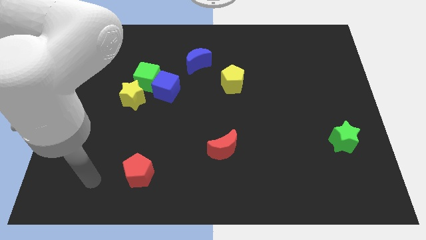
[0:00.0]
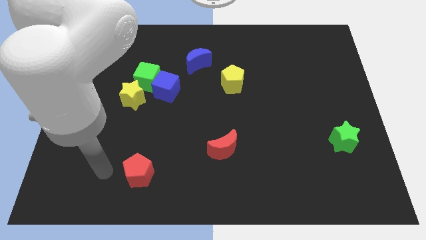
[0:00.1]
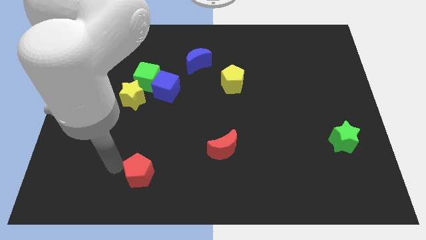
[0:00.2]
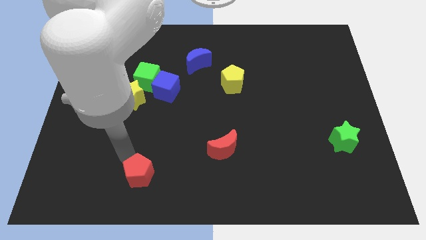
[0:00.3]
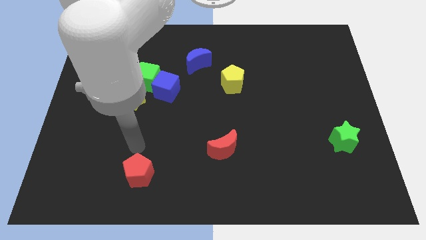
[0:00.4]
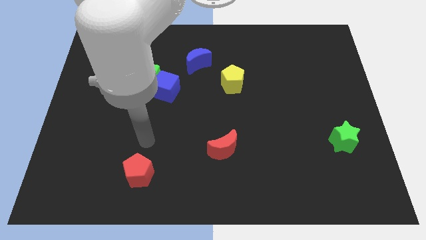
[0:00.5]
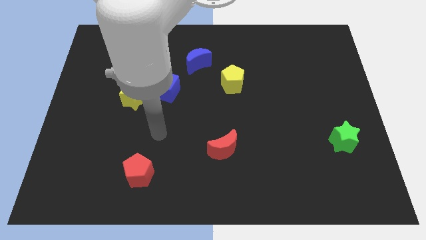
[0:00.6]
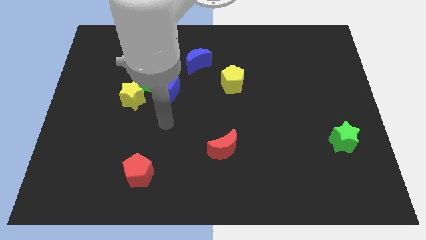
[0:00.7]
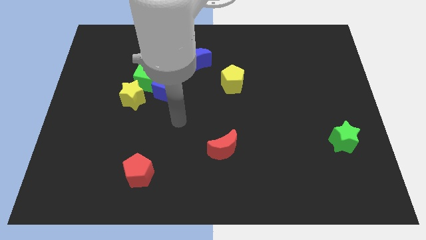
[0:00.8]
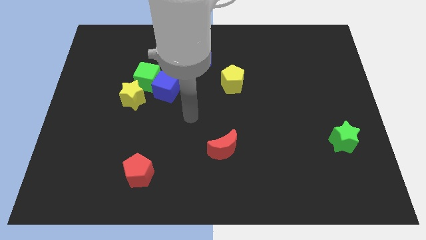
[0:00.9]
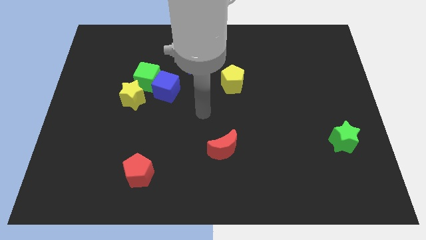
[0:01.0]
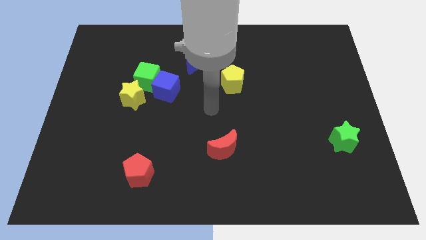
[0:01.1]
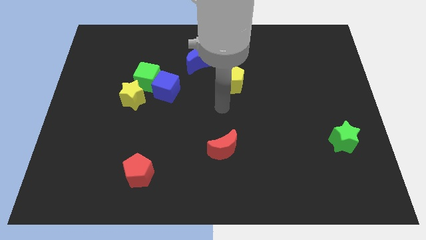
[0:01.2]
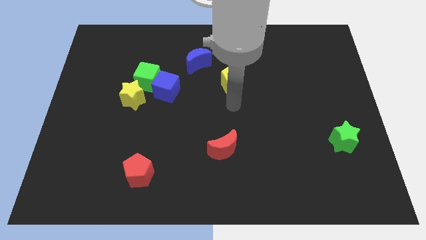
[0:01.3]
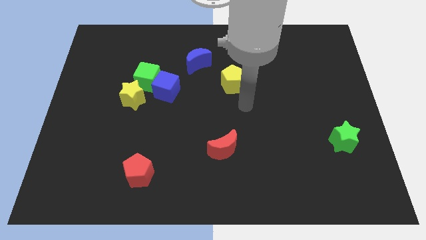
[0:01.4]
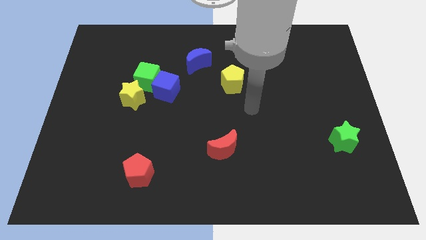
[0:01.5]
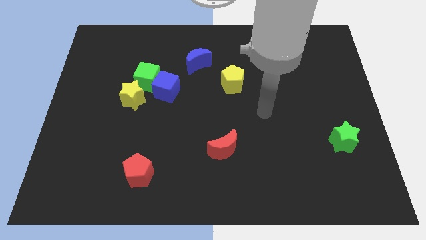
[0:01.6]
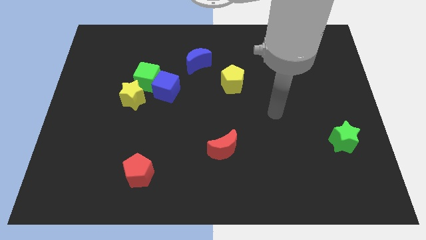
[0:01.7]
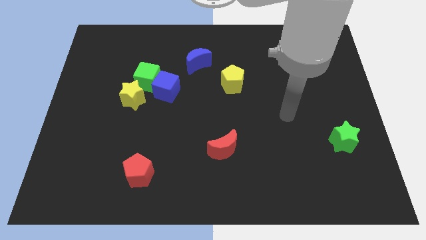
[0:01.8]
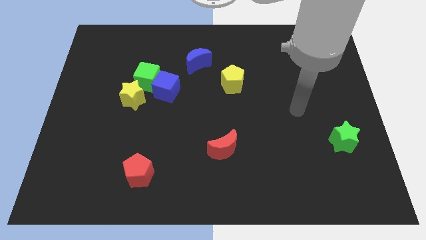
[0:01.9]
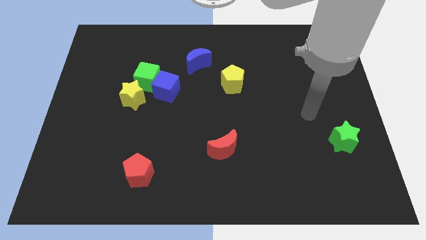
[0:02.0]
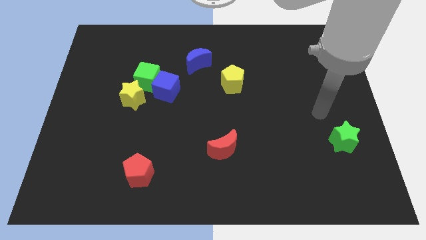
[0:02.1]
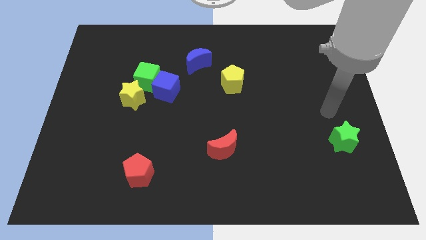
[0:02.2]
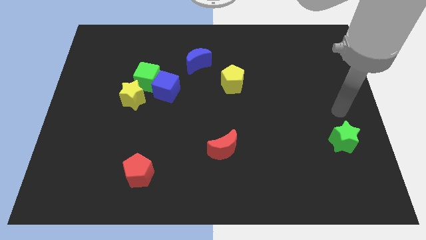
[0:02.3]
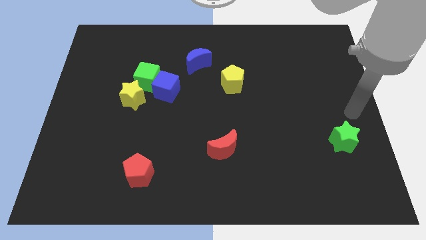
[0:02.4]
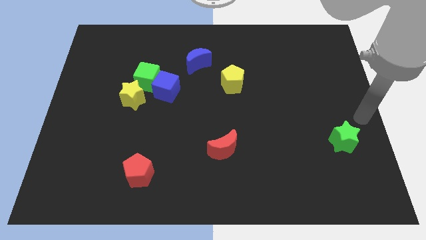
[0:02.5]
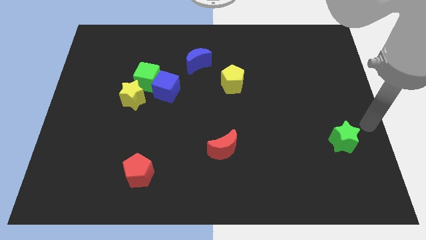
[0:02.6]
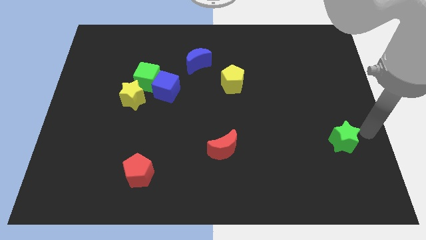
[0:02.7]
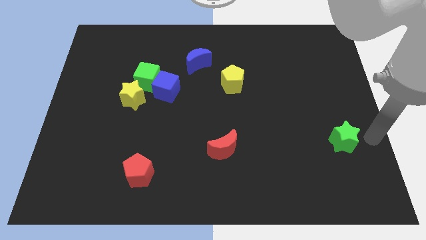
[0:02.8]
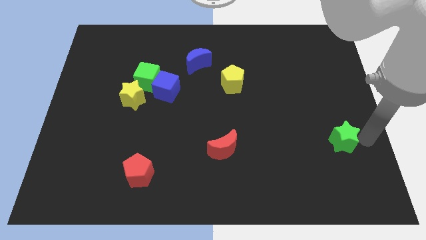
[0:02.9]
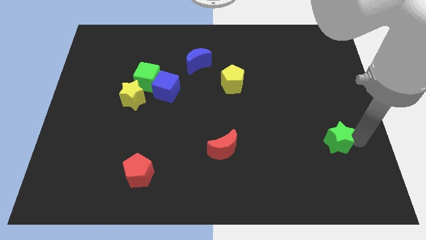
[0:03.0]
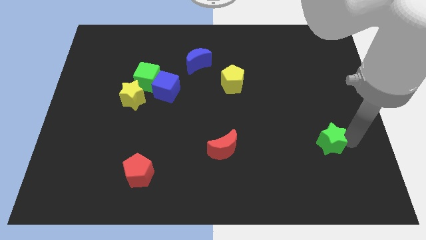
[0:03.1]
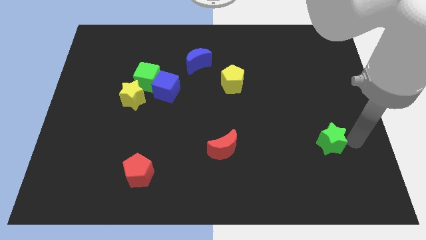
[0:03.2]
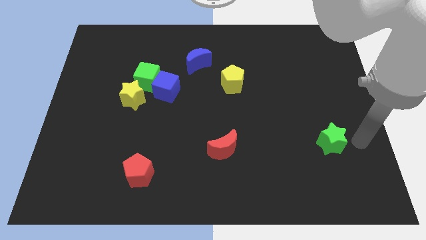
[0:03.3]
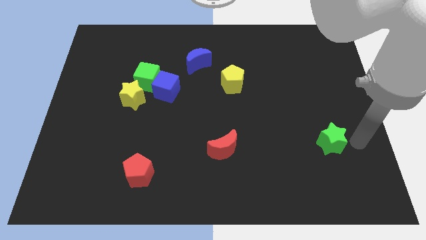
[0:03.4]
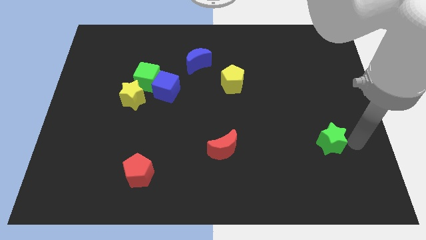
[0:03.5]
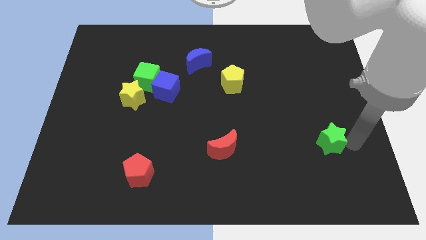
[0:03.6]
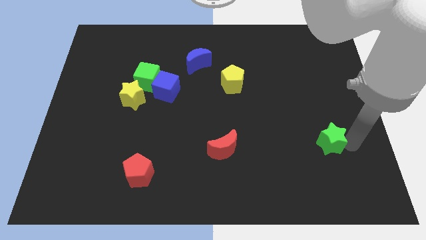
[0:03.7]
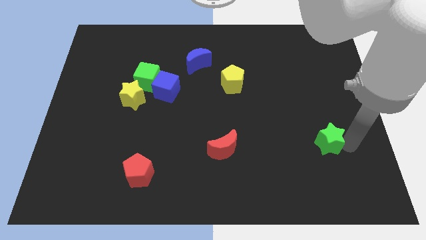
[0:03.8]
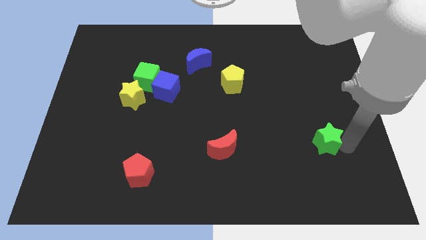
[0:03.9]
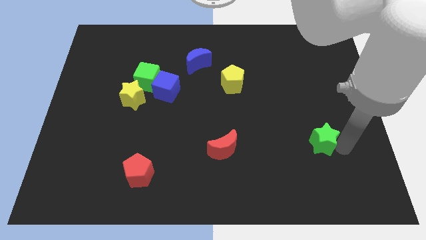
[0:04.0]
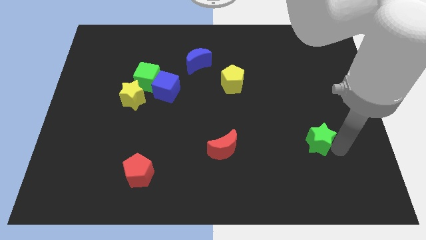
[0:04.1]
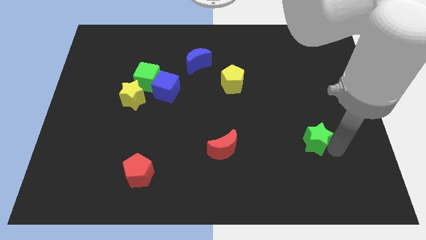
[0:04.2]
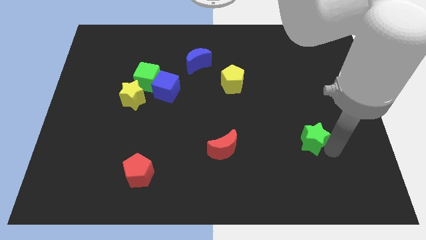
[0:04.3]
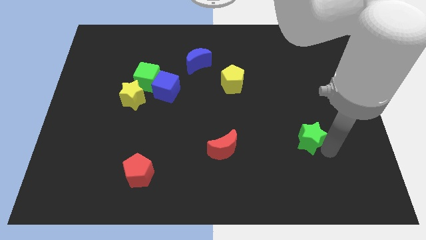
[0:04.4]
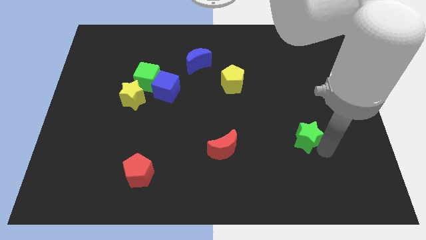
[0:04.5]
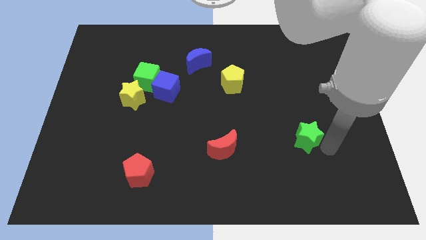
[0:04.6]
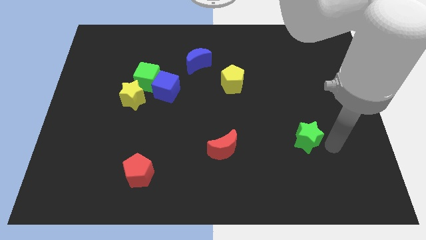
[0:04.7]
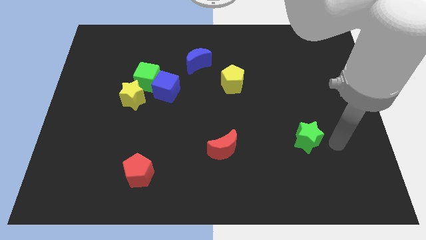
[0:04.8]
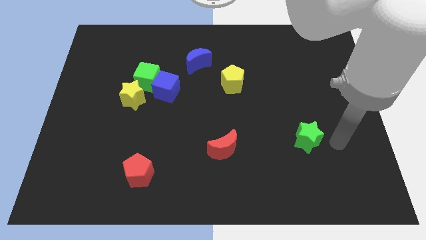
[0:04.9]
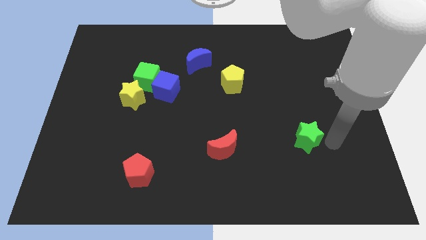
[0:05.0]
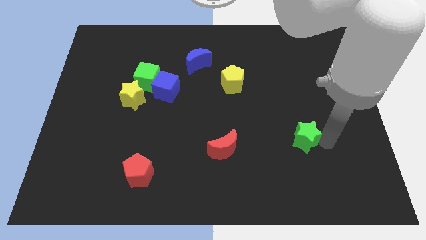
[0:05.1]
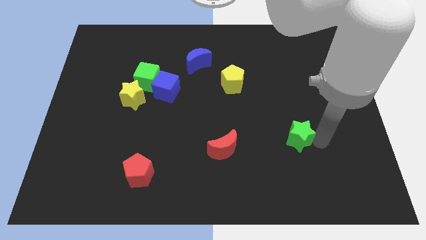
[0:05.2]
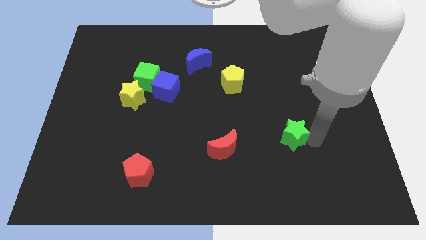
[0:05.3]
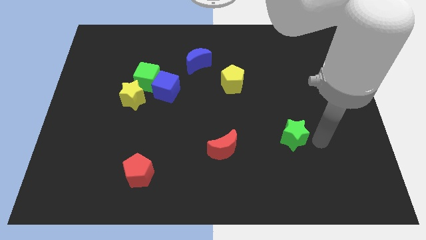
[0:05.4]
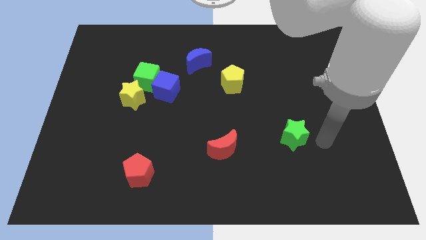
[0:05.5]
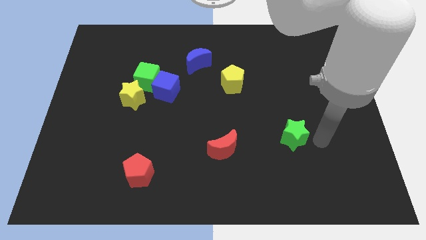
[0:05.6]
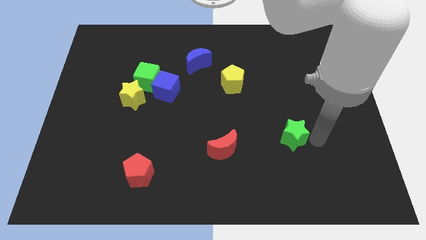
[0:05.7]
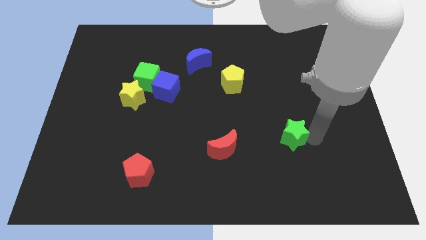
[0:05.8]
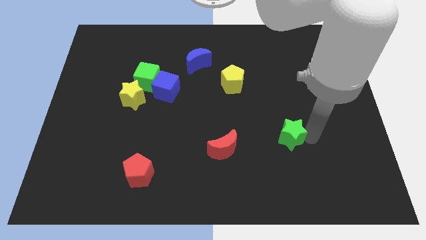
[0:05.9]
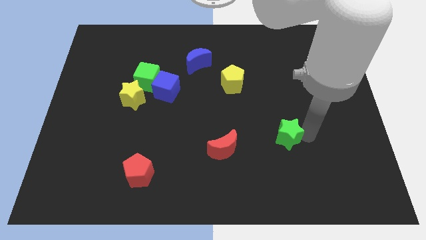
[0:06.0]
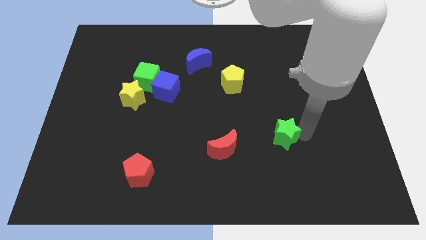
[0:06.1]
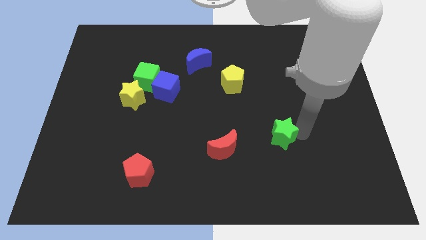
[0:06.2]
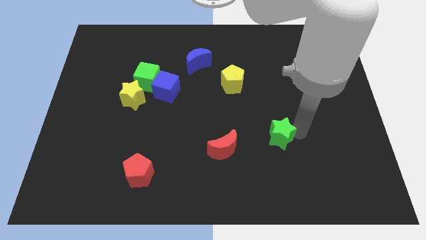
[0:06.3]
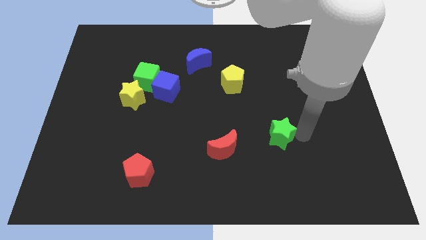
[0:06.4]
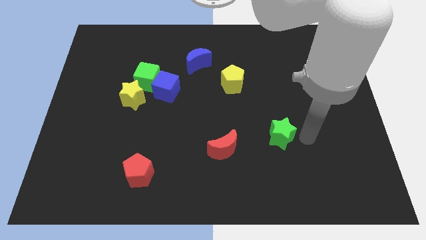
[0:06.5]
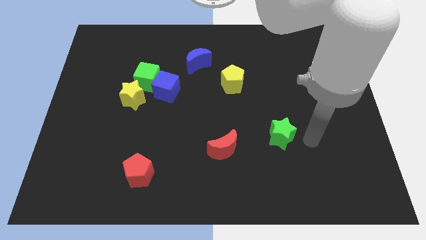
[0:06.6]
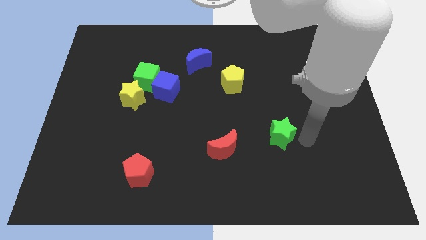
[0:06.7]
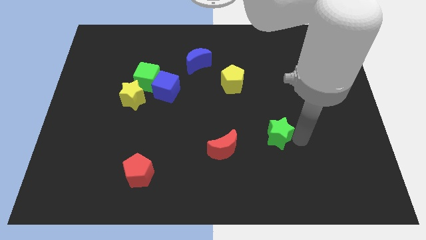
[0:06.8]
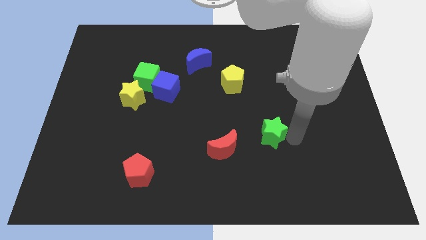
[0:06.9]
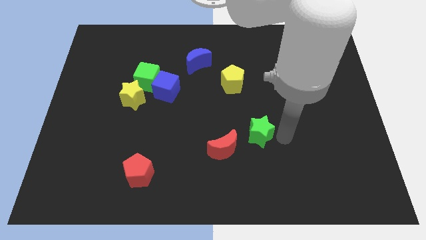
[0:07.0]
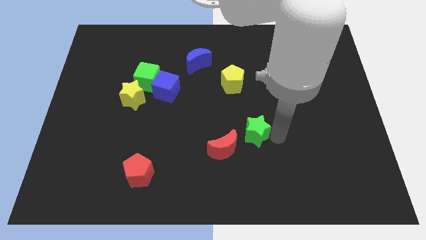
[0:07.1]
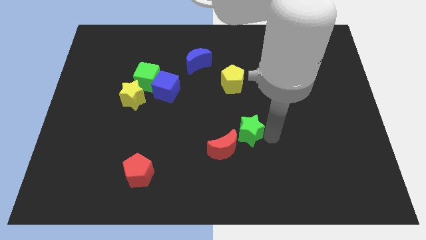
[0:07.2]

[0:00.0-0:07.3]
push the green star to the left

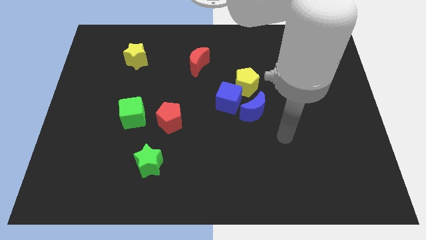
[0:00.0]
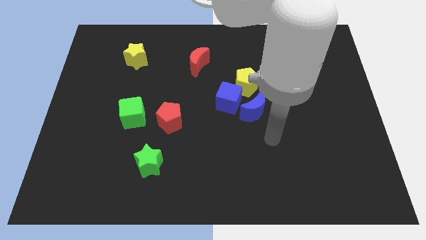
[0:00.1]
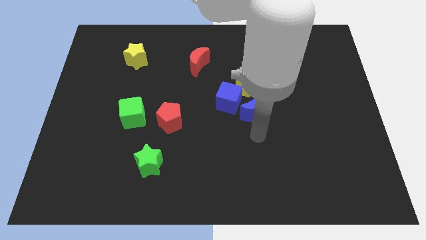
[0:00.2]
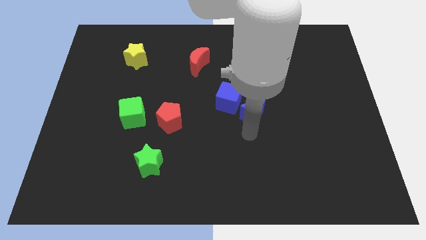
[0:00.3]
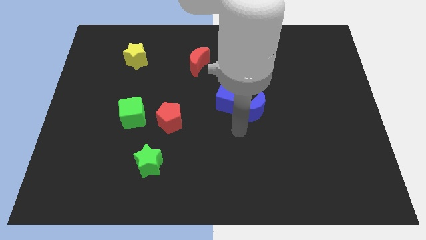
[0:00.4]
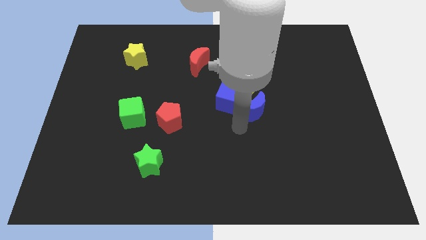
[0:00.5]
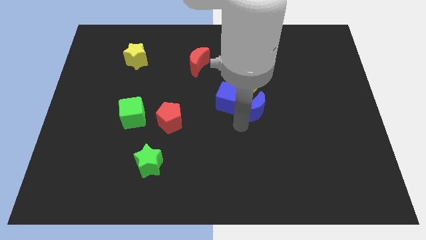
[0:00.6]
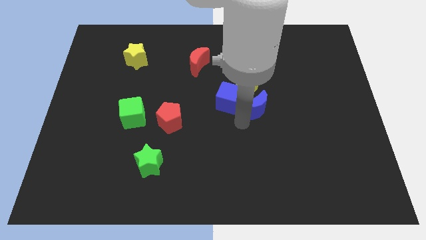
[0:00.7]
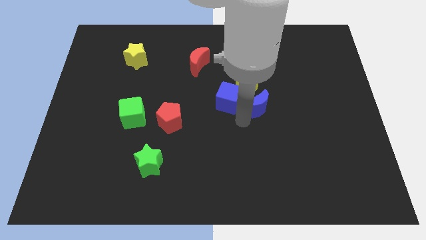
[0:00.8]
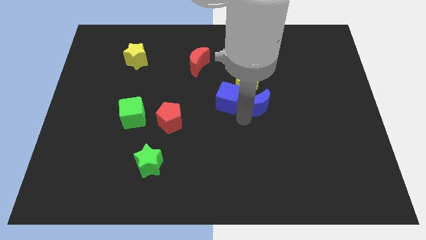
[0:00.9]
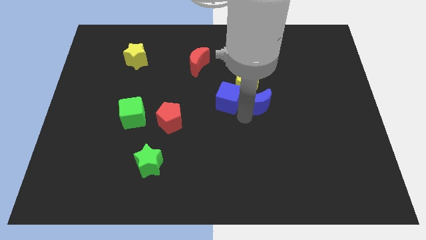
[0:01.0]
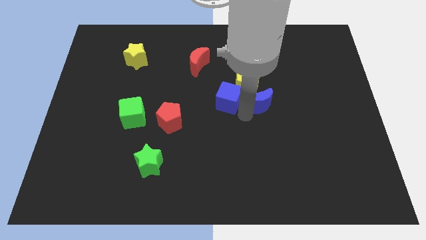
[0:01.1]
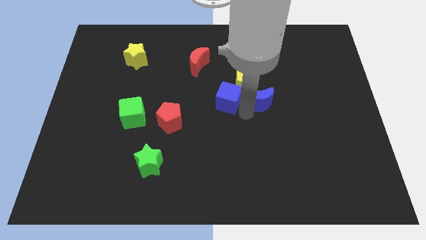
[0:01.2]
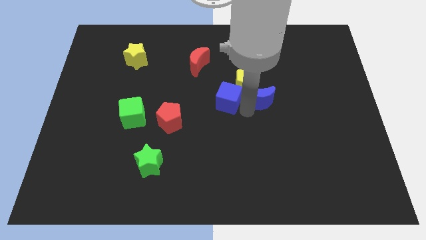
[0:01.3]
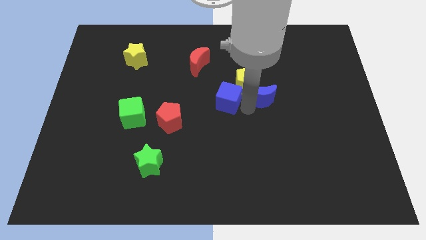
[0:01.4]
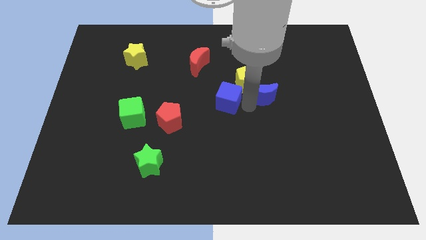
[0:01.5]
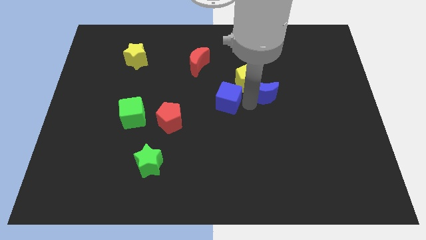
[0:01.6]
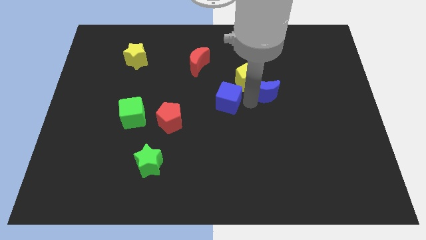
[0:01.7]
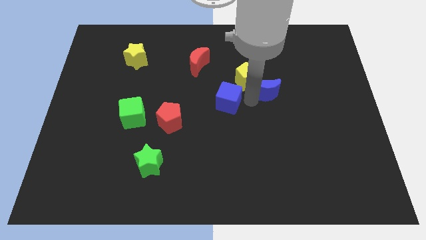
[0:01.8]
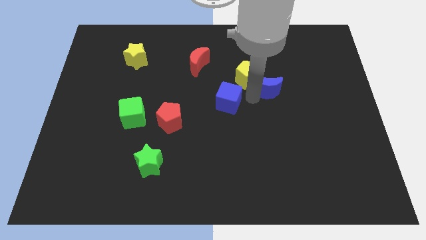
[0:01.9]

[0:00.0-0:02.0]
push the blue moon diagonally upwards and to the right slightly
